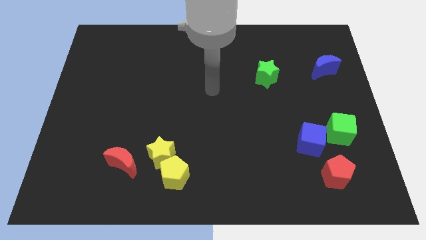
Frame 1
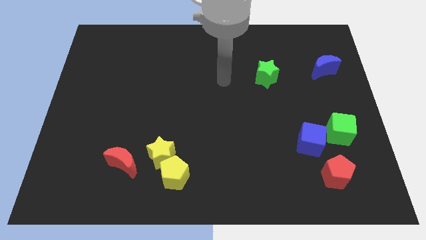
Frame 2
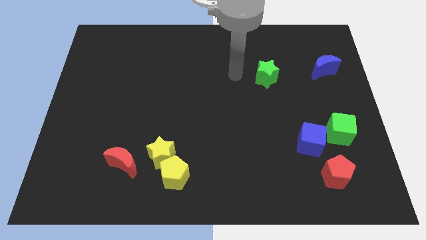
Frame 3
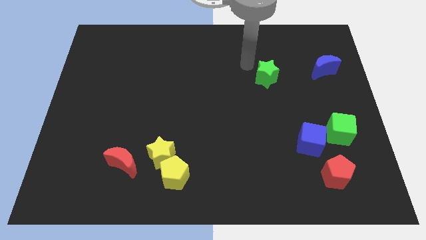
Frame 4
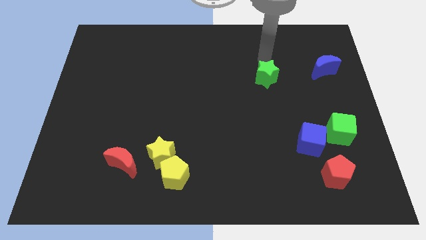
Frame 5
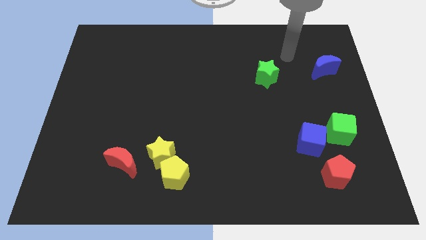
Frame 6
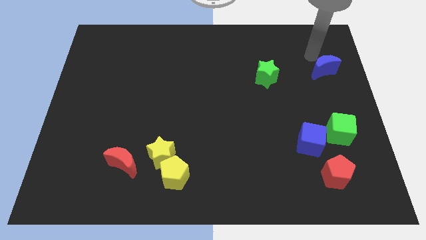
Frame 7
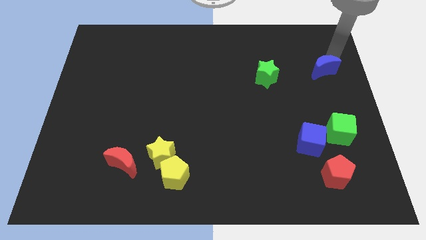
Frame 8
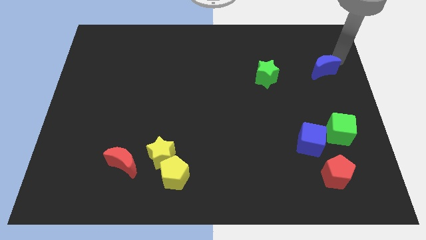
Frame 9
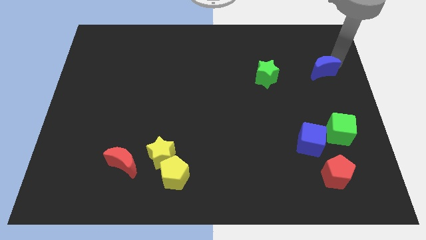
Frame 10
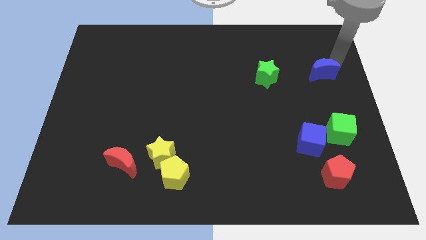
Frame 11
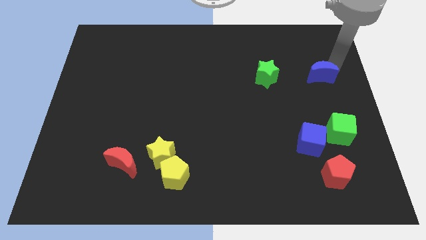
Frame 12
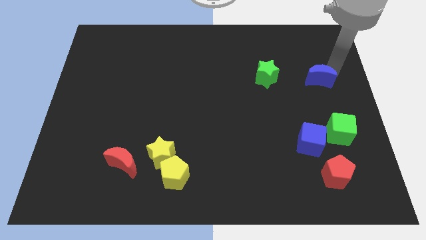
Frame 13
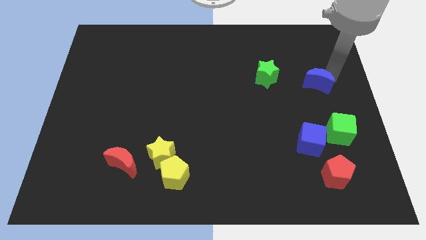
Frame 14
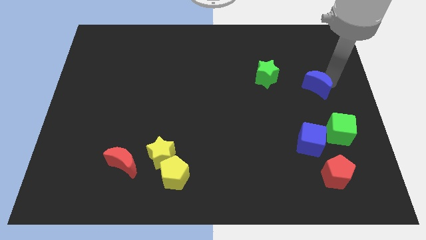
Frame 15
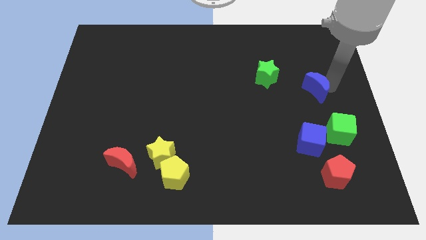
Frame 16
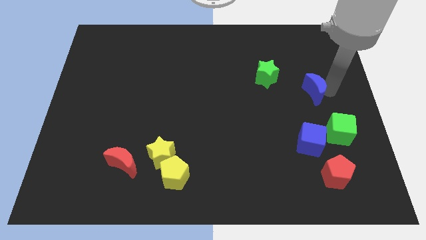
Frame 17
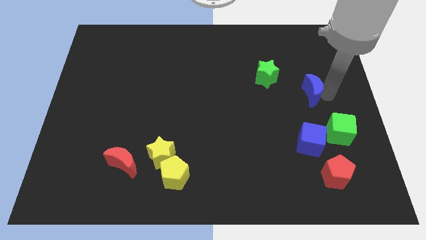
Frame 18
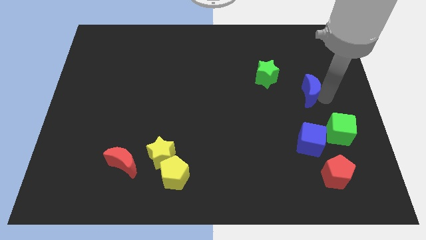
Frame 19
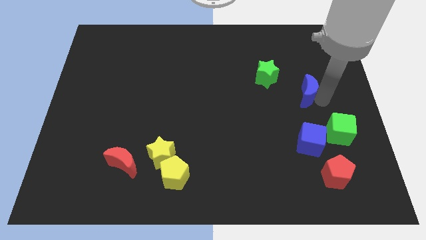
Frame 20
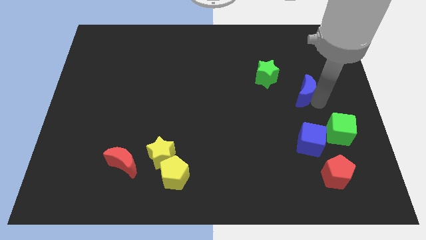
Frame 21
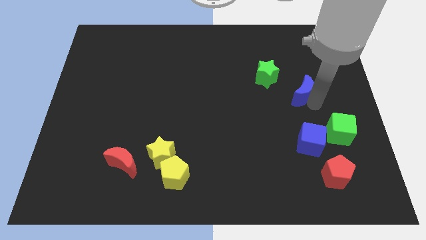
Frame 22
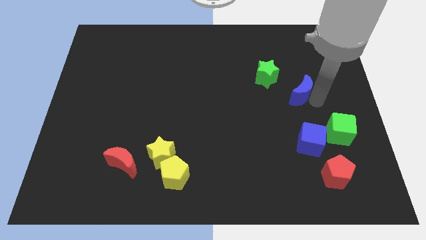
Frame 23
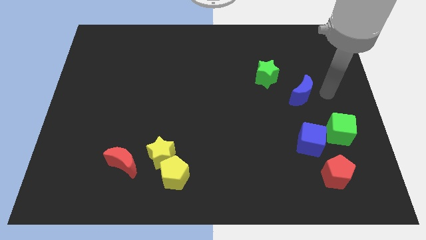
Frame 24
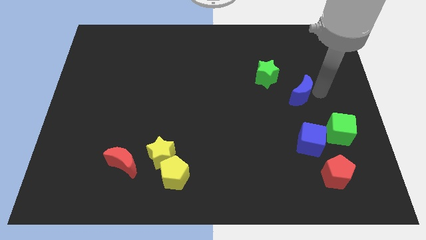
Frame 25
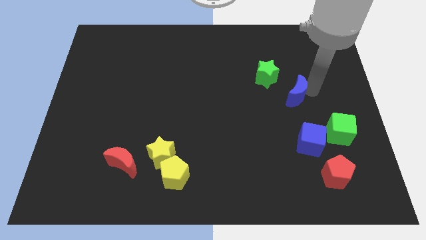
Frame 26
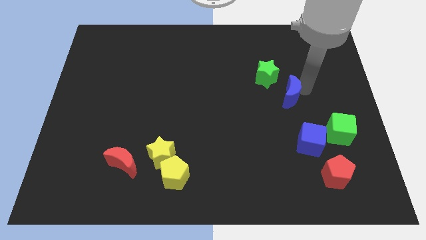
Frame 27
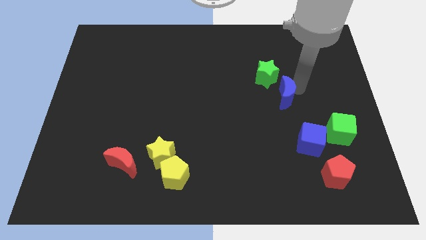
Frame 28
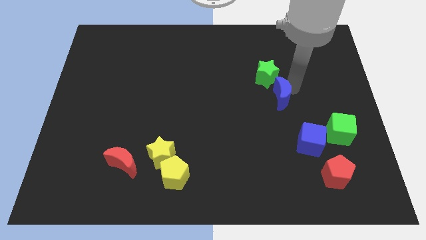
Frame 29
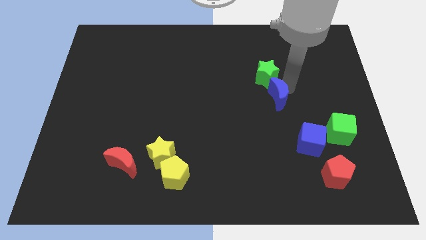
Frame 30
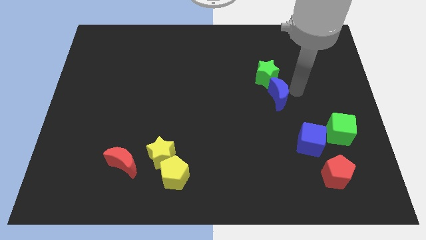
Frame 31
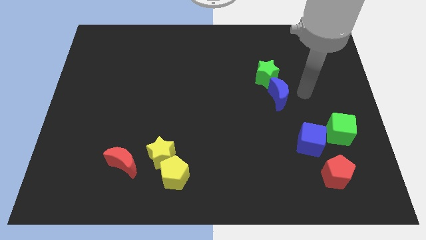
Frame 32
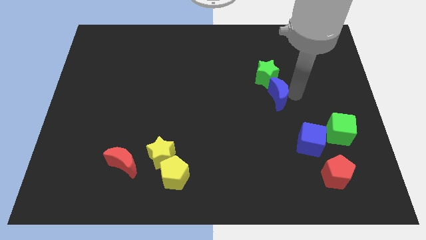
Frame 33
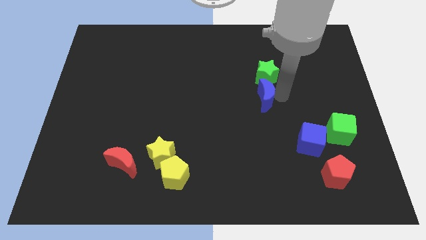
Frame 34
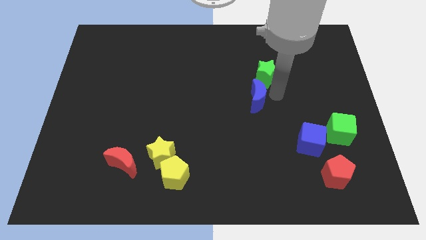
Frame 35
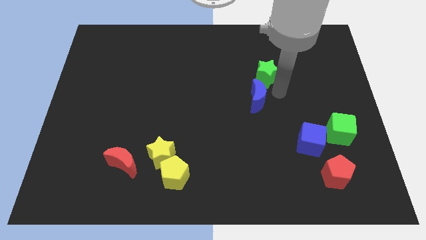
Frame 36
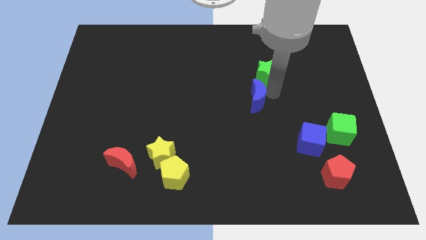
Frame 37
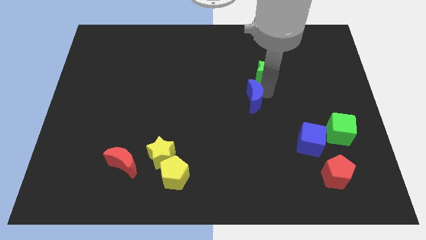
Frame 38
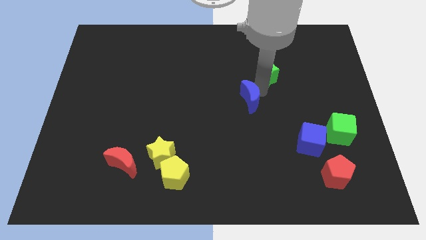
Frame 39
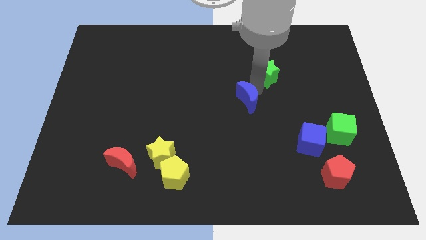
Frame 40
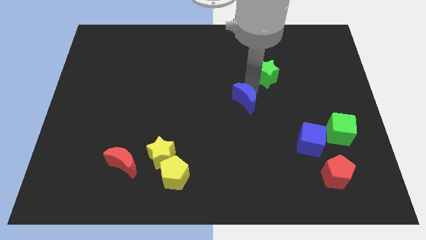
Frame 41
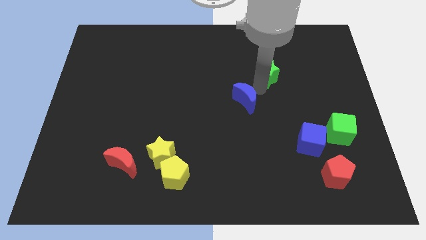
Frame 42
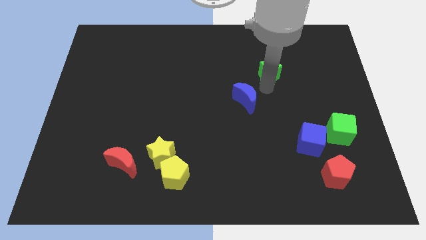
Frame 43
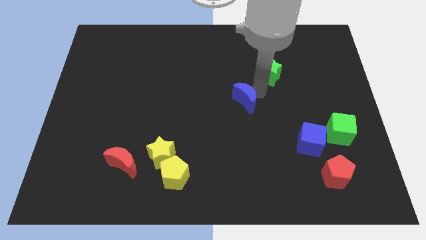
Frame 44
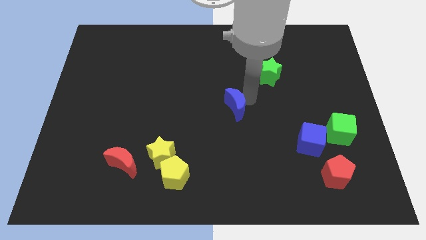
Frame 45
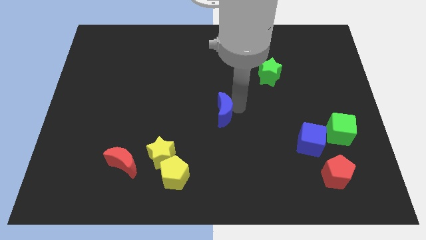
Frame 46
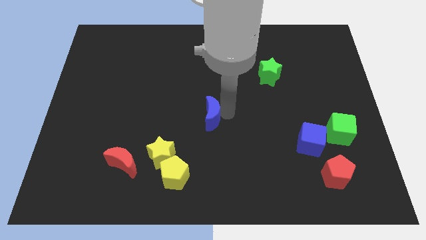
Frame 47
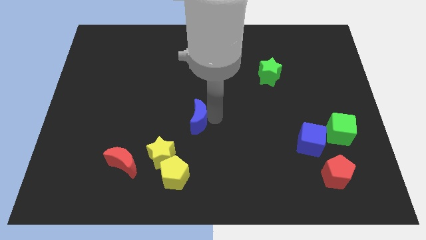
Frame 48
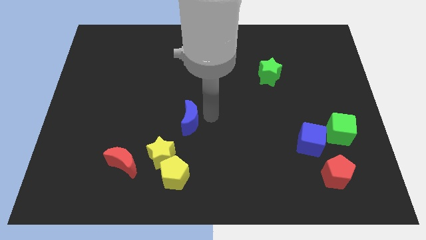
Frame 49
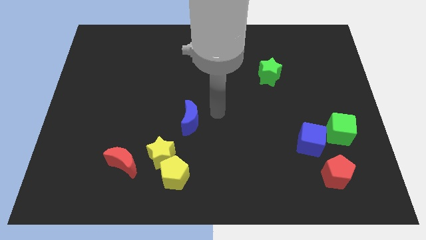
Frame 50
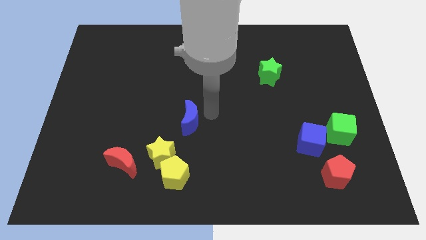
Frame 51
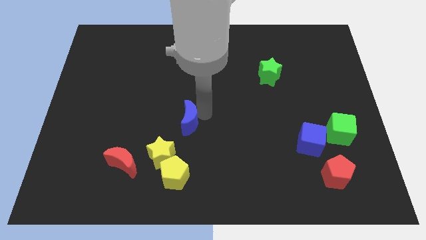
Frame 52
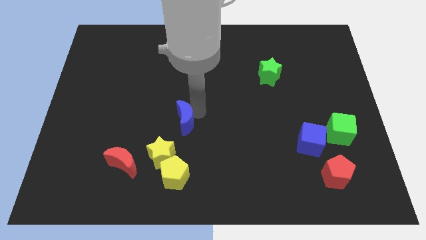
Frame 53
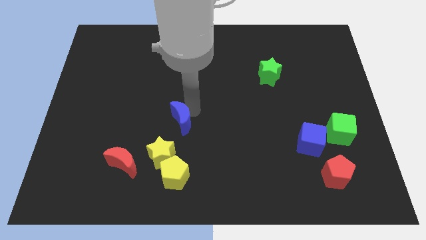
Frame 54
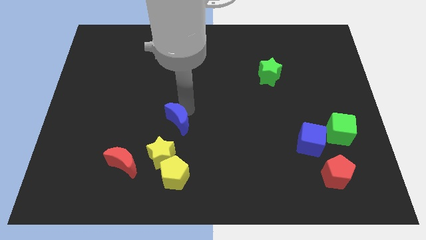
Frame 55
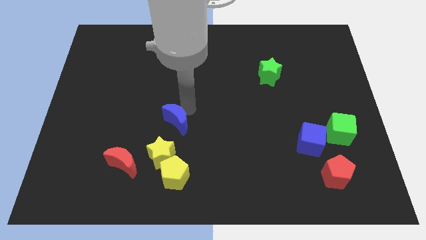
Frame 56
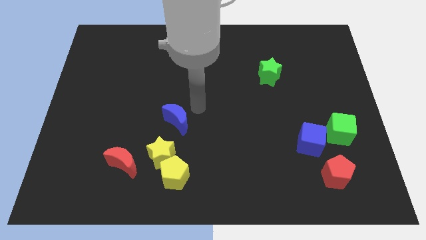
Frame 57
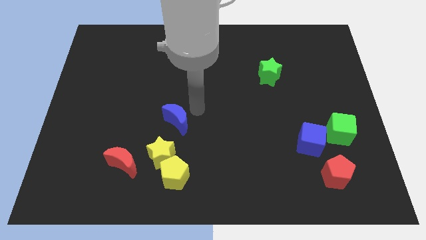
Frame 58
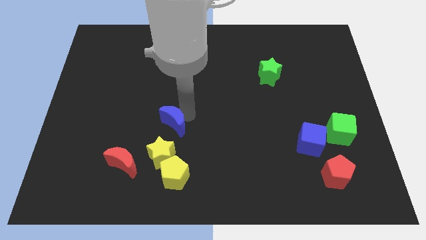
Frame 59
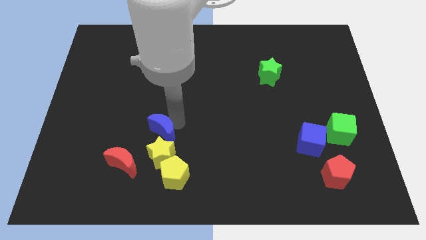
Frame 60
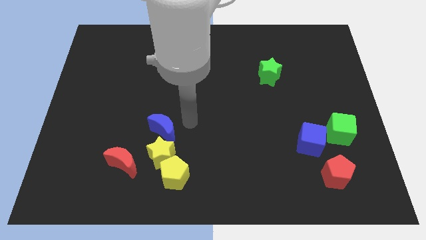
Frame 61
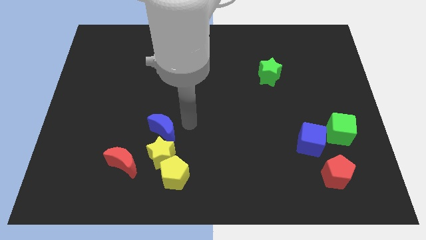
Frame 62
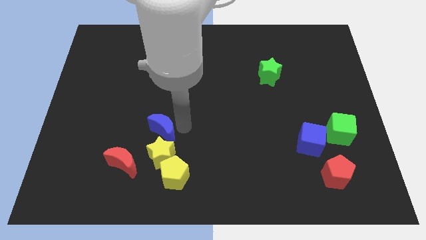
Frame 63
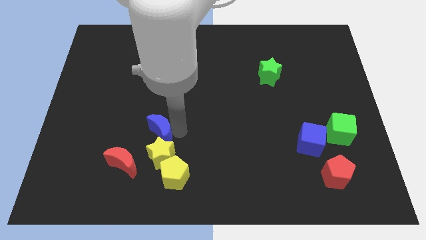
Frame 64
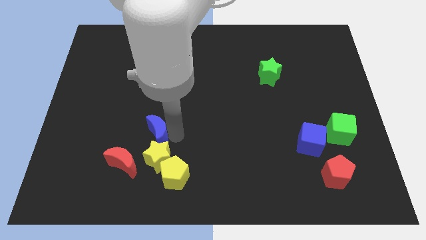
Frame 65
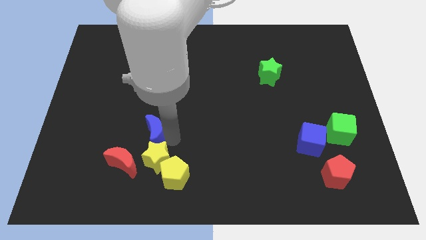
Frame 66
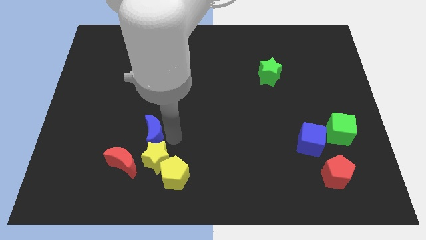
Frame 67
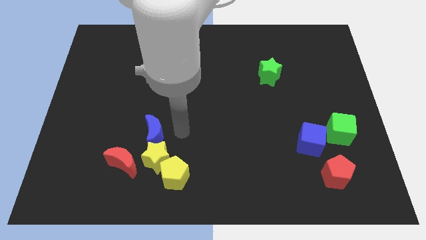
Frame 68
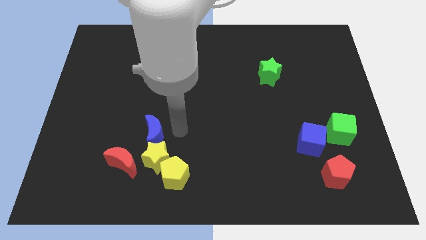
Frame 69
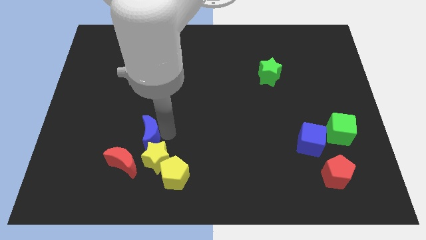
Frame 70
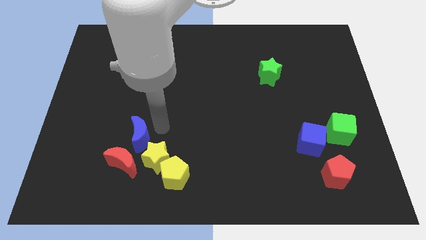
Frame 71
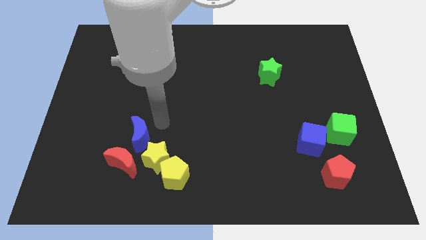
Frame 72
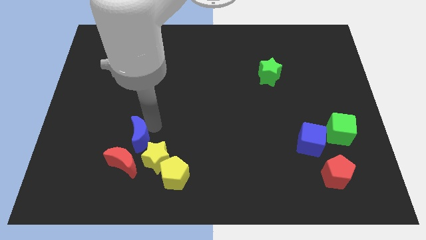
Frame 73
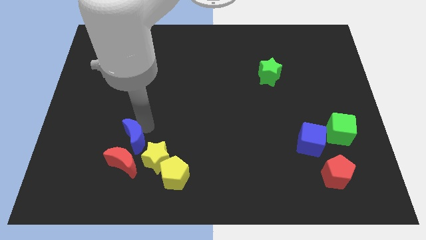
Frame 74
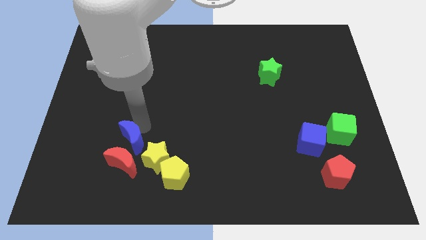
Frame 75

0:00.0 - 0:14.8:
move the blue moon to the left of the yellow star
